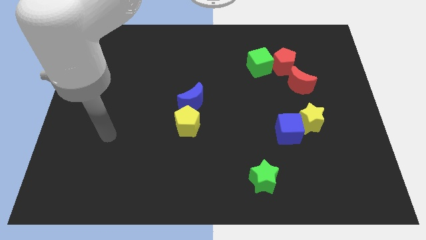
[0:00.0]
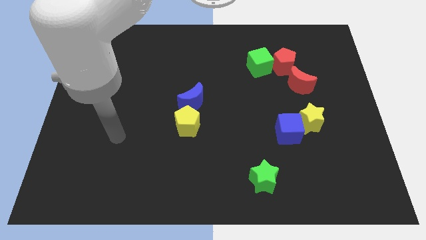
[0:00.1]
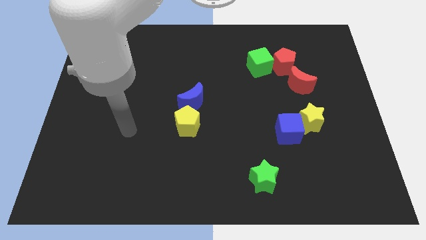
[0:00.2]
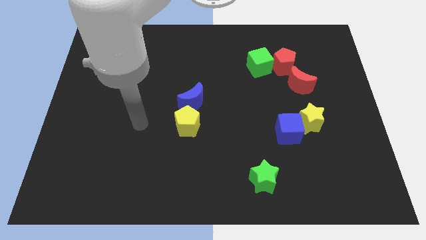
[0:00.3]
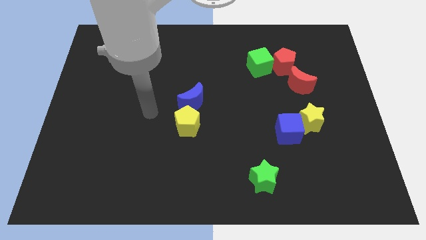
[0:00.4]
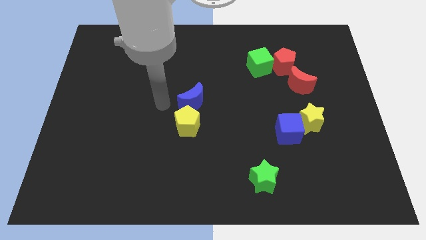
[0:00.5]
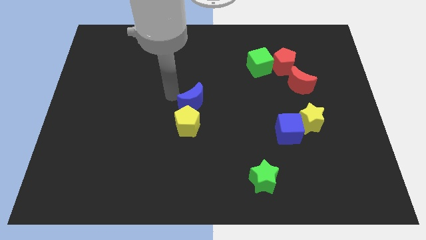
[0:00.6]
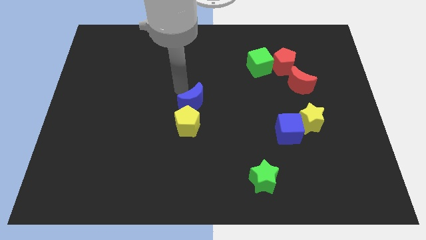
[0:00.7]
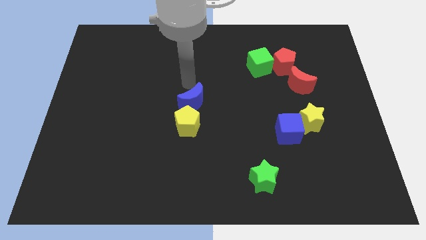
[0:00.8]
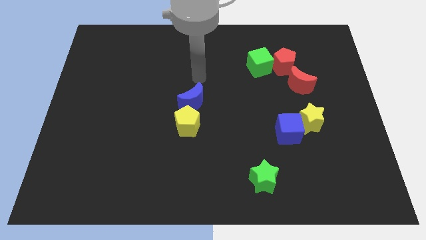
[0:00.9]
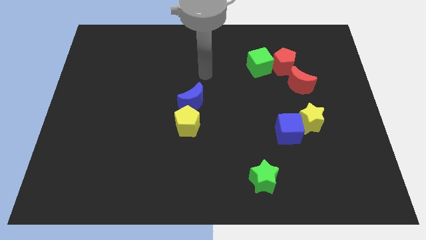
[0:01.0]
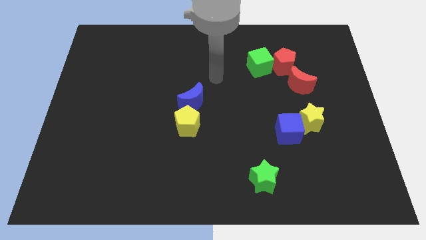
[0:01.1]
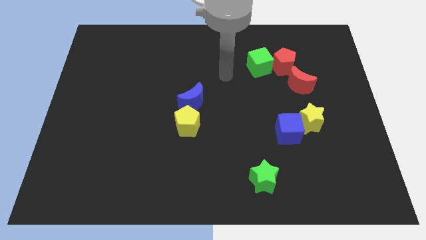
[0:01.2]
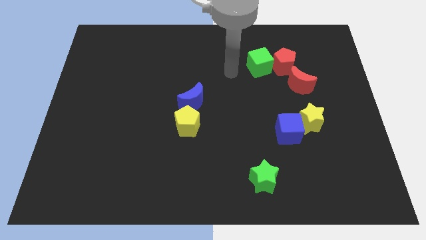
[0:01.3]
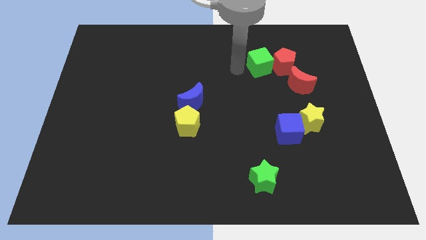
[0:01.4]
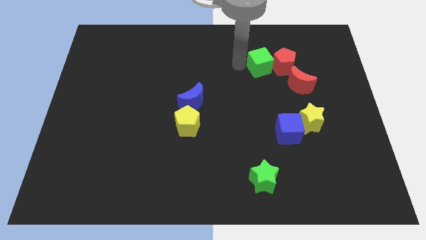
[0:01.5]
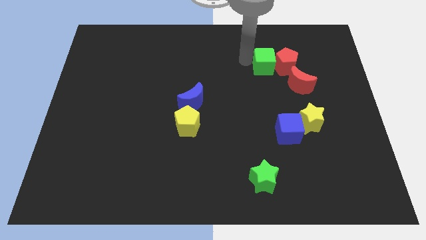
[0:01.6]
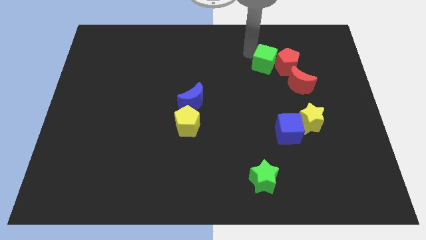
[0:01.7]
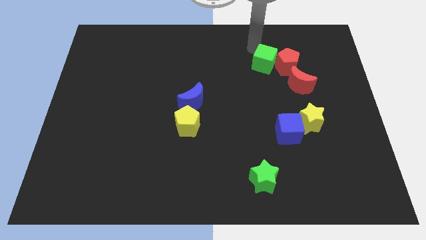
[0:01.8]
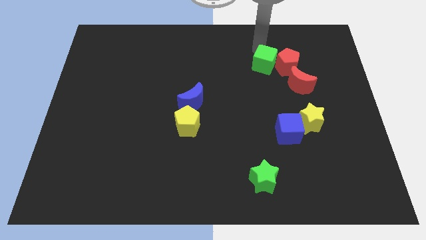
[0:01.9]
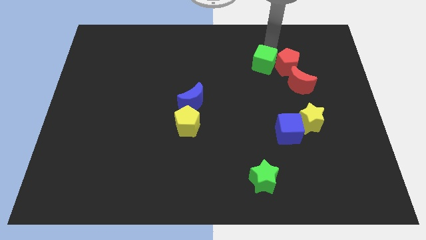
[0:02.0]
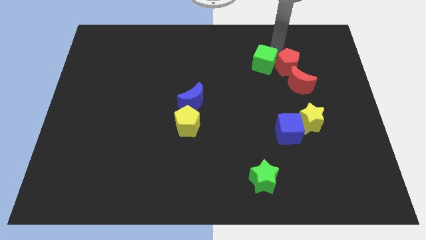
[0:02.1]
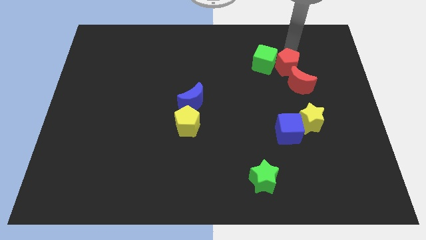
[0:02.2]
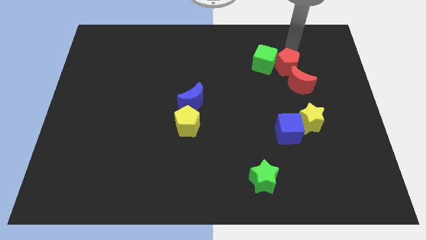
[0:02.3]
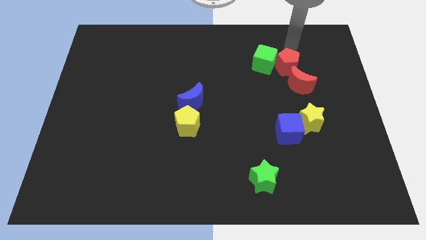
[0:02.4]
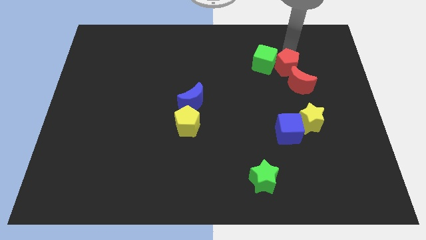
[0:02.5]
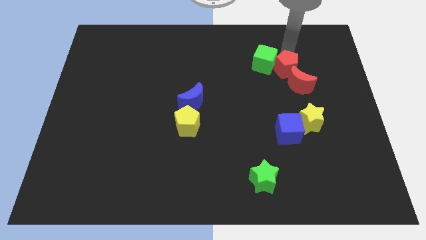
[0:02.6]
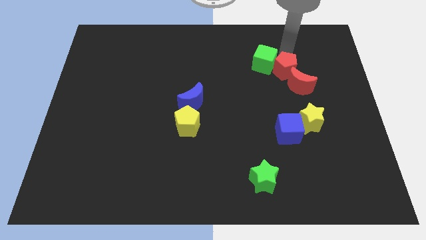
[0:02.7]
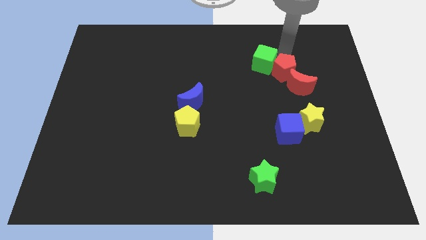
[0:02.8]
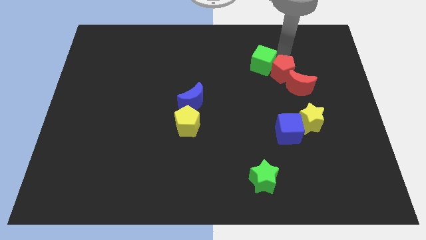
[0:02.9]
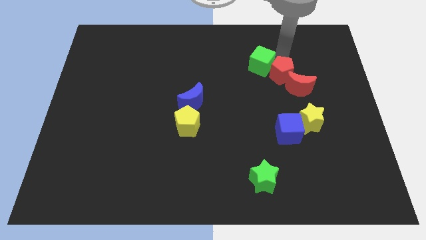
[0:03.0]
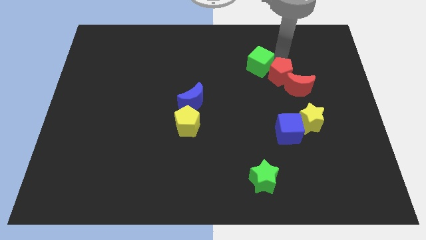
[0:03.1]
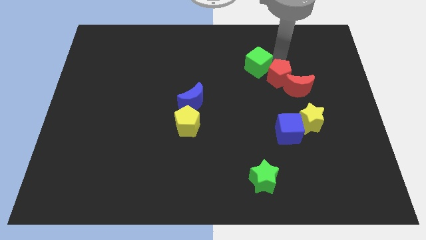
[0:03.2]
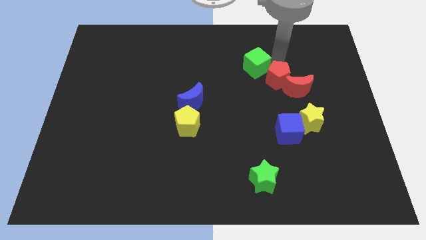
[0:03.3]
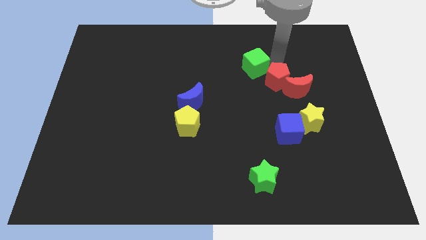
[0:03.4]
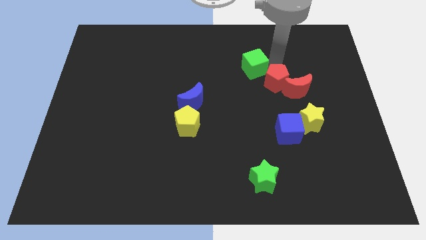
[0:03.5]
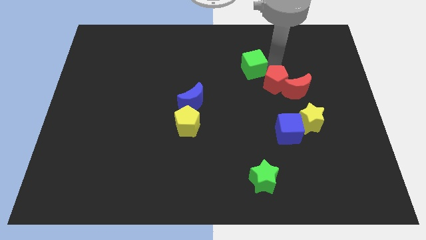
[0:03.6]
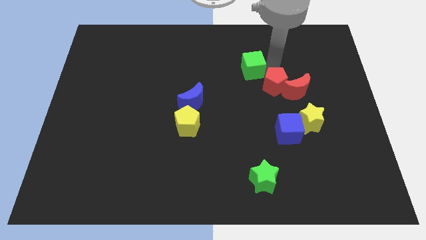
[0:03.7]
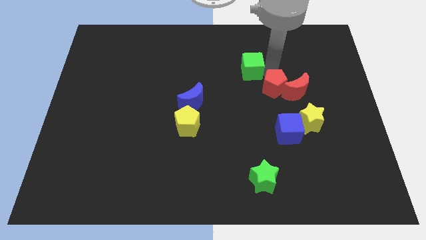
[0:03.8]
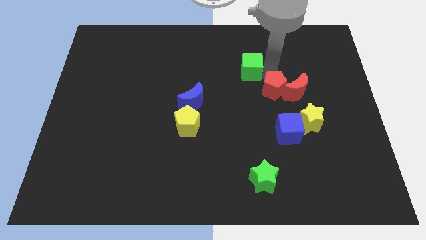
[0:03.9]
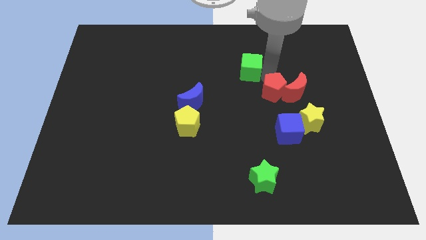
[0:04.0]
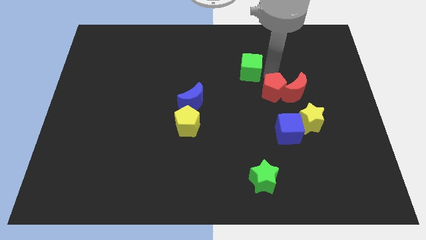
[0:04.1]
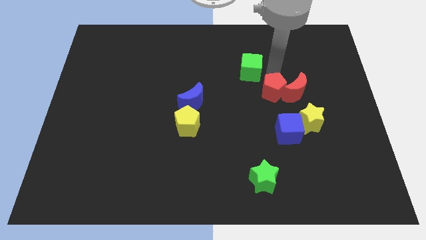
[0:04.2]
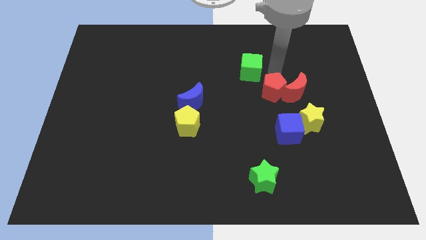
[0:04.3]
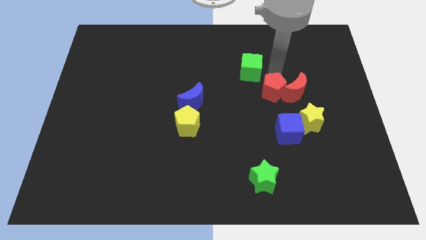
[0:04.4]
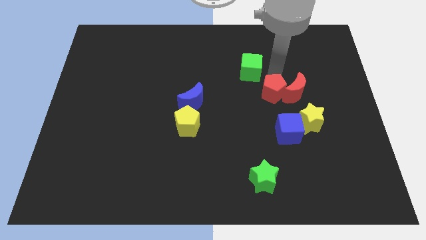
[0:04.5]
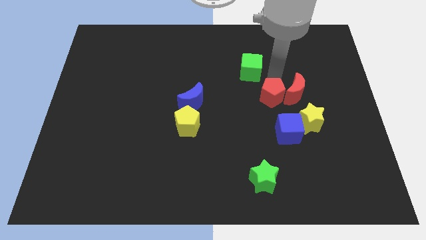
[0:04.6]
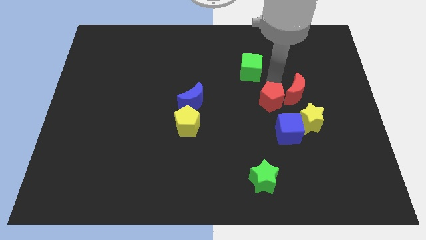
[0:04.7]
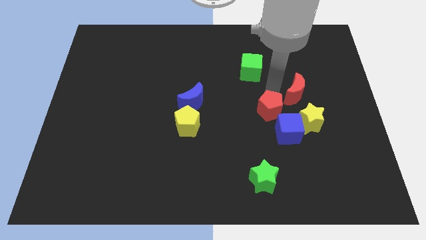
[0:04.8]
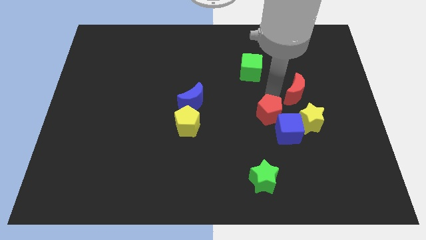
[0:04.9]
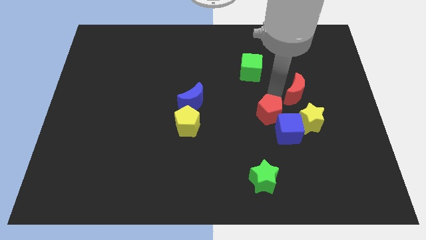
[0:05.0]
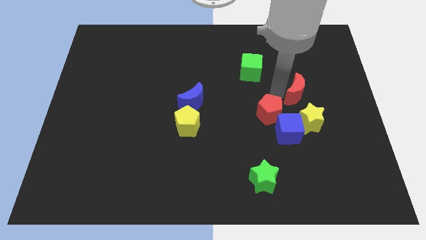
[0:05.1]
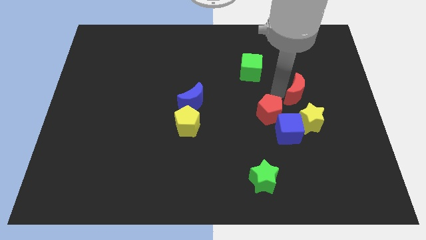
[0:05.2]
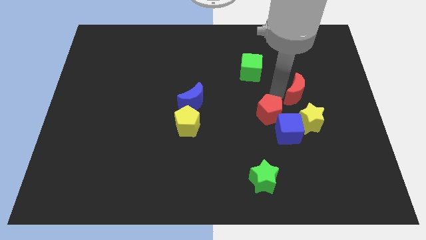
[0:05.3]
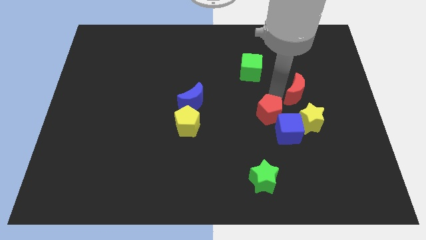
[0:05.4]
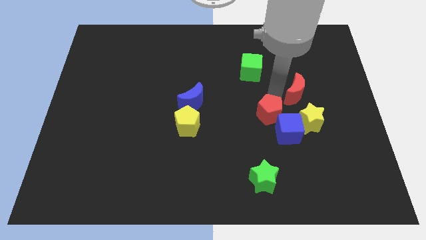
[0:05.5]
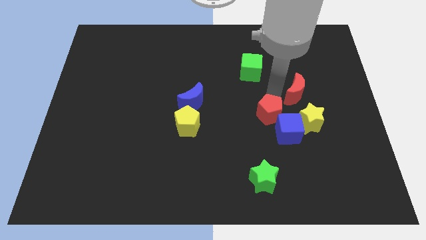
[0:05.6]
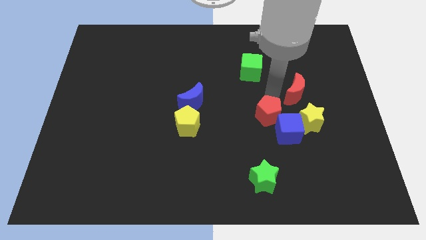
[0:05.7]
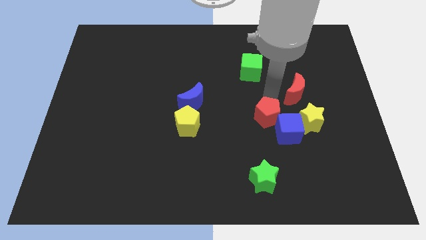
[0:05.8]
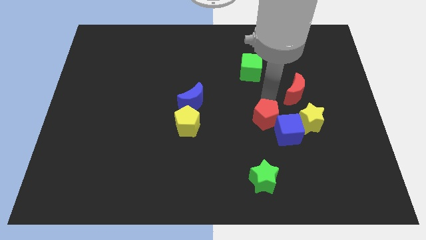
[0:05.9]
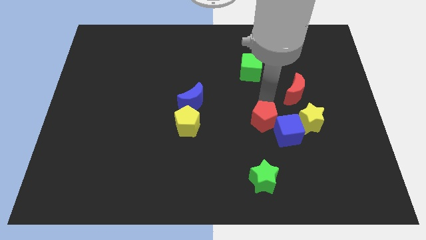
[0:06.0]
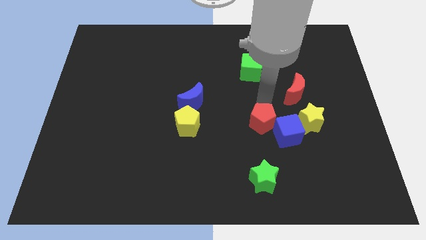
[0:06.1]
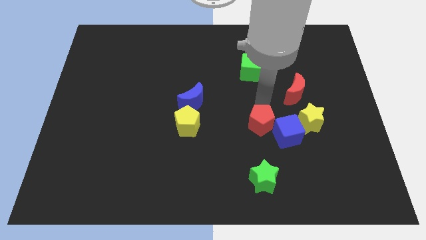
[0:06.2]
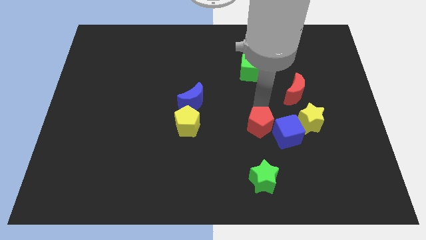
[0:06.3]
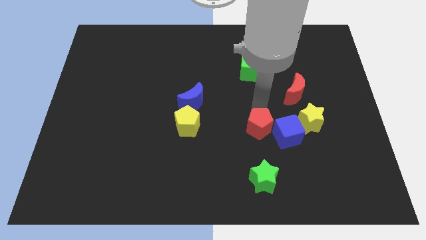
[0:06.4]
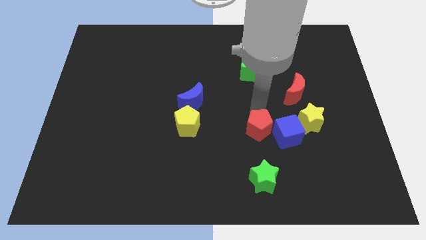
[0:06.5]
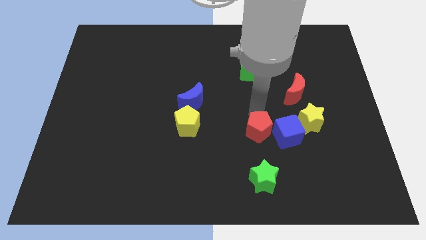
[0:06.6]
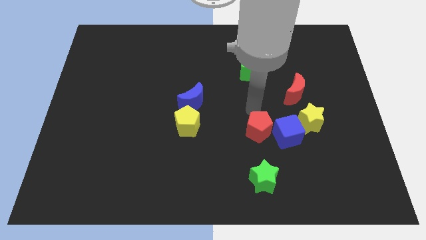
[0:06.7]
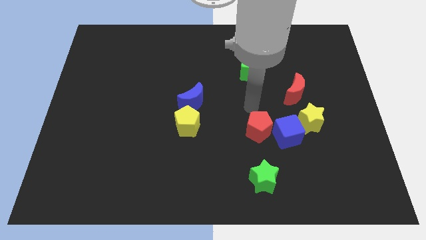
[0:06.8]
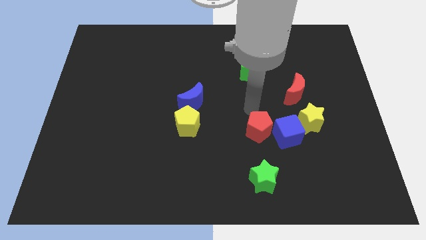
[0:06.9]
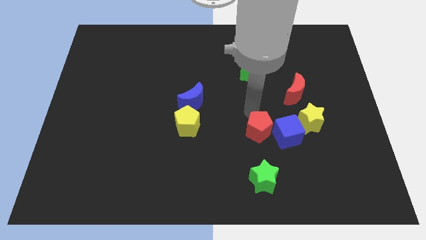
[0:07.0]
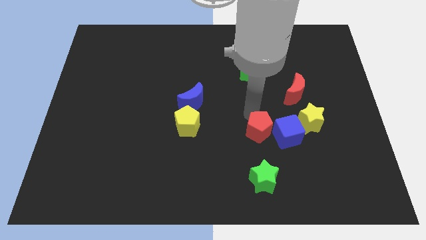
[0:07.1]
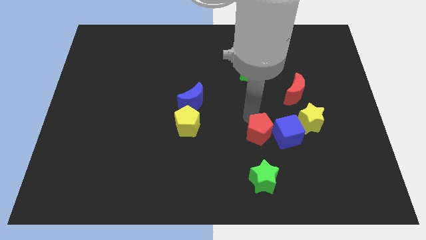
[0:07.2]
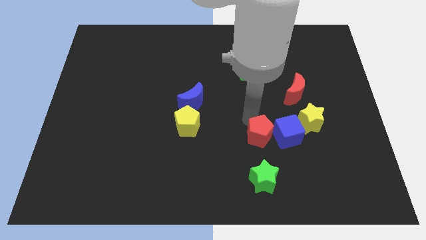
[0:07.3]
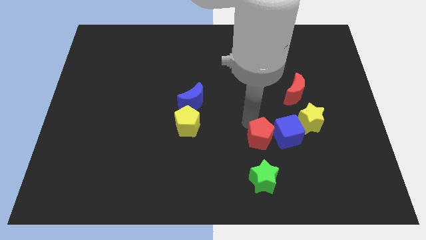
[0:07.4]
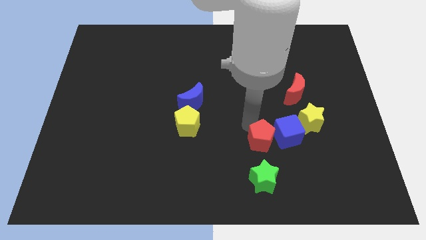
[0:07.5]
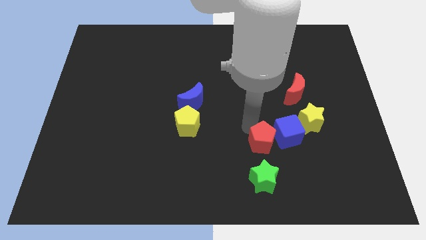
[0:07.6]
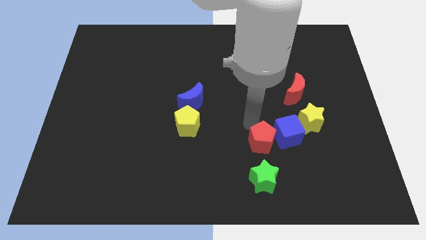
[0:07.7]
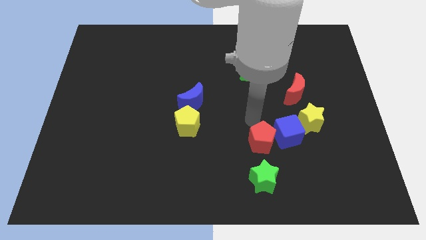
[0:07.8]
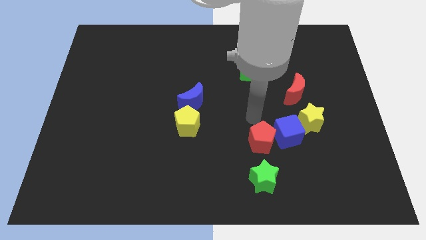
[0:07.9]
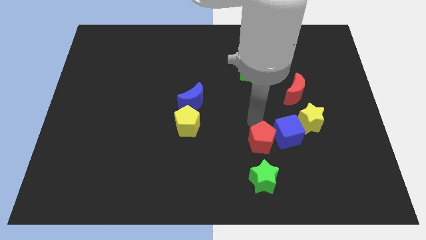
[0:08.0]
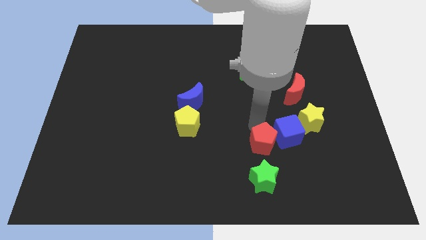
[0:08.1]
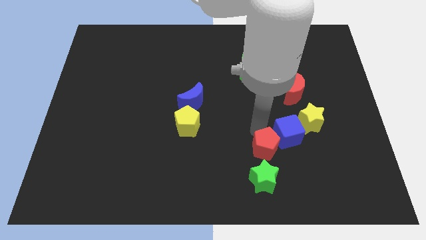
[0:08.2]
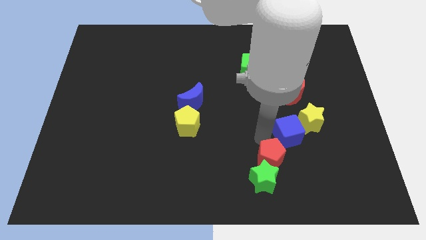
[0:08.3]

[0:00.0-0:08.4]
push the red pentagon to the green star
